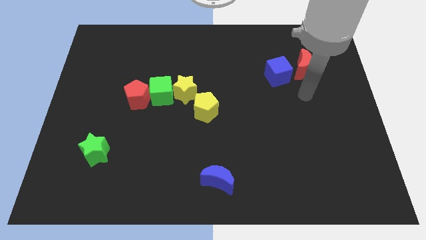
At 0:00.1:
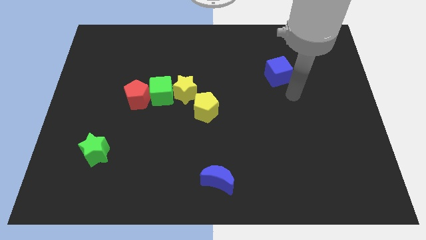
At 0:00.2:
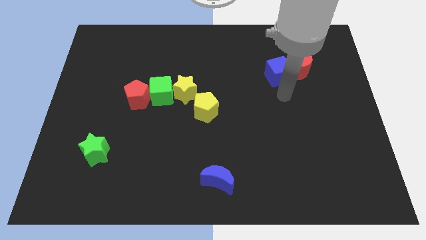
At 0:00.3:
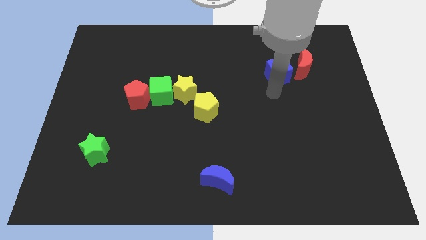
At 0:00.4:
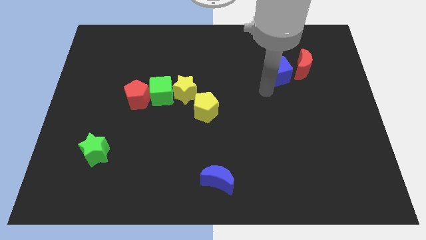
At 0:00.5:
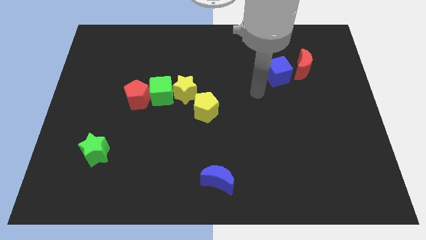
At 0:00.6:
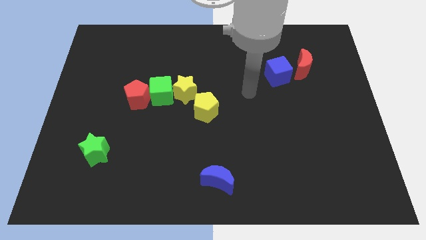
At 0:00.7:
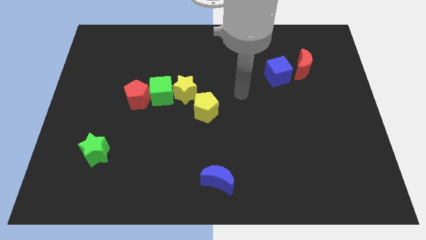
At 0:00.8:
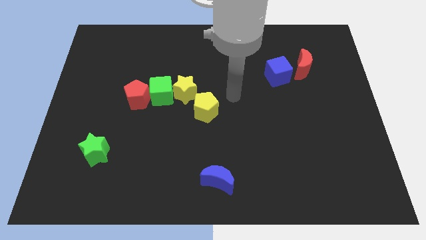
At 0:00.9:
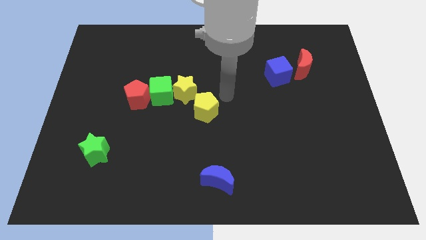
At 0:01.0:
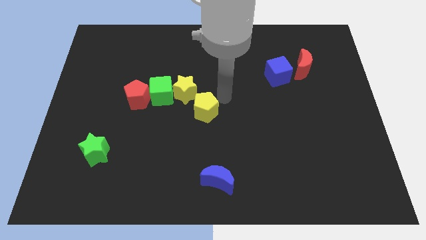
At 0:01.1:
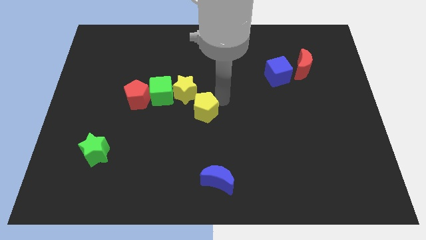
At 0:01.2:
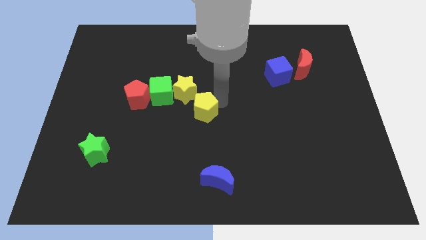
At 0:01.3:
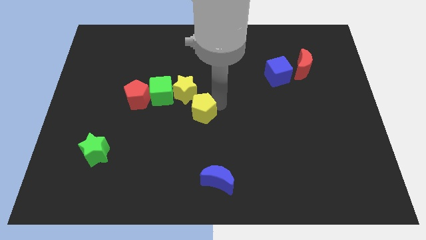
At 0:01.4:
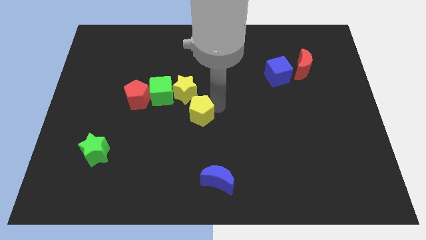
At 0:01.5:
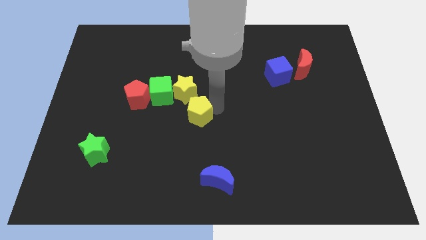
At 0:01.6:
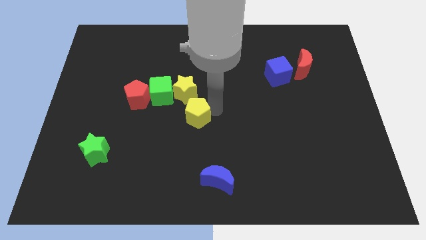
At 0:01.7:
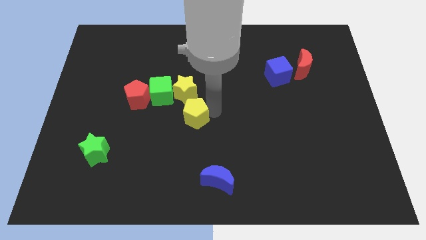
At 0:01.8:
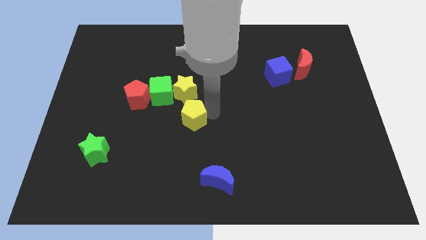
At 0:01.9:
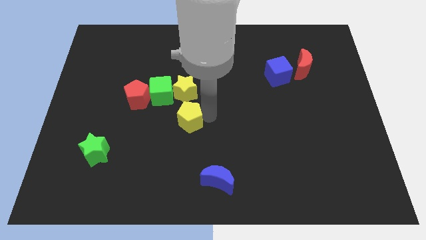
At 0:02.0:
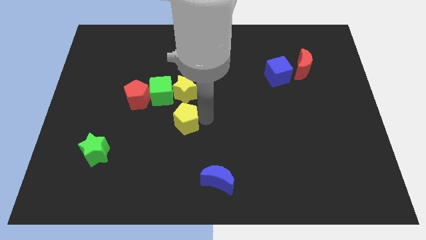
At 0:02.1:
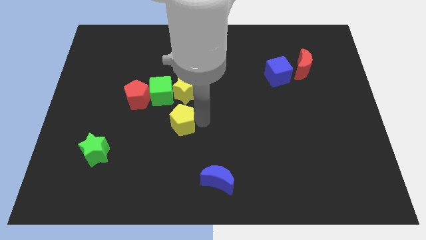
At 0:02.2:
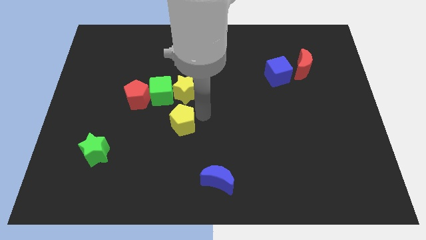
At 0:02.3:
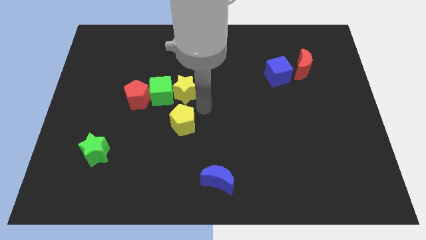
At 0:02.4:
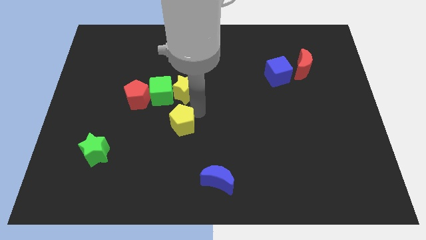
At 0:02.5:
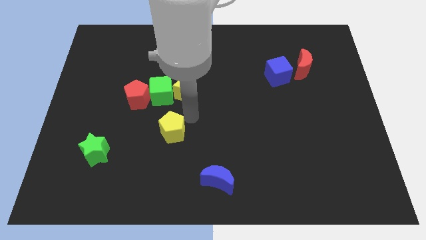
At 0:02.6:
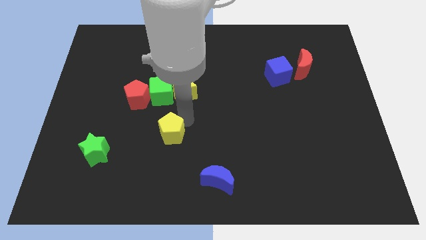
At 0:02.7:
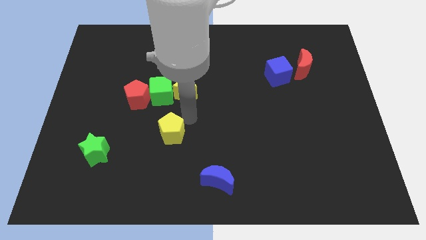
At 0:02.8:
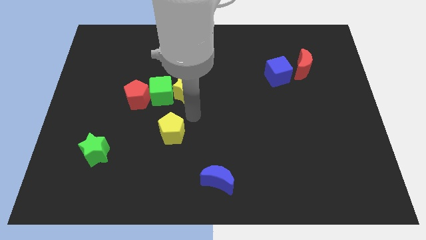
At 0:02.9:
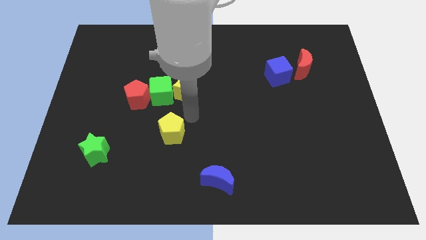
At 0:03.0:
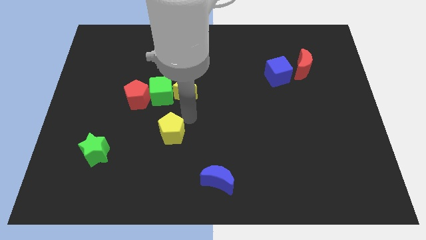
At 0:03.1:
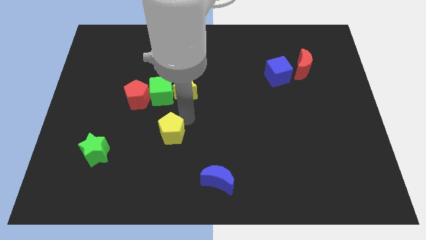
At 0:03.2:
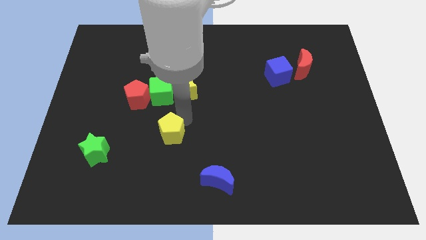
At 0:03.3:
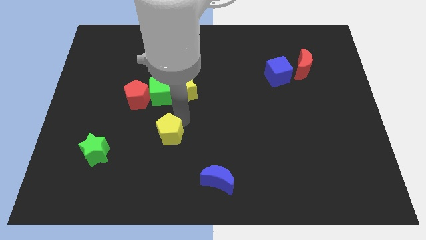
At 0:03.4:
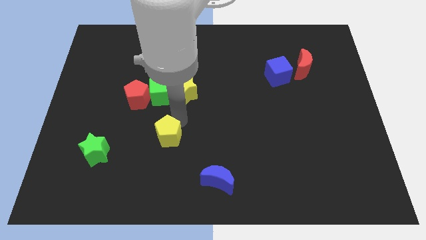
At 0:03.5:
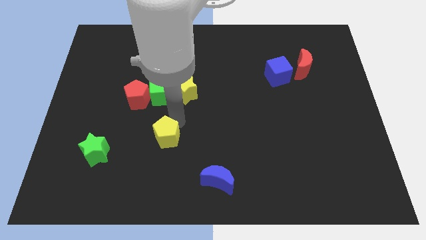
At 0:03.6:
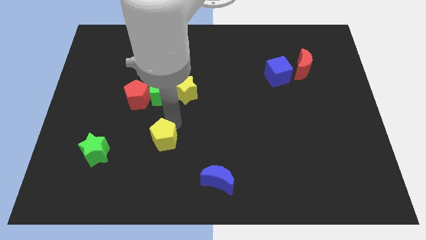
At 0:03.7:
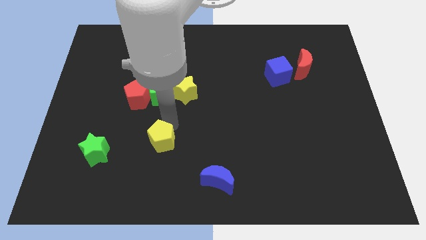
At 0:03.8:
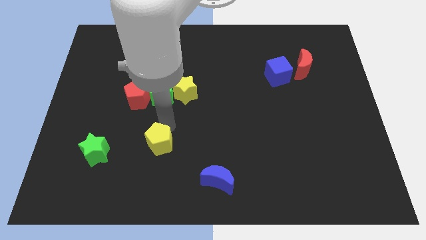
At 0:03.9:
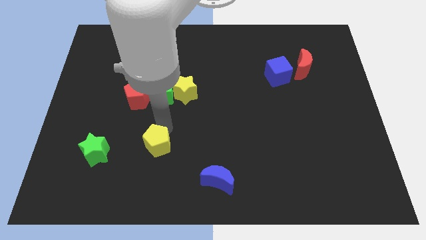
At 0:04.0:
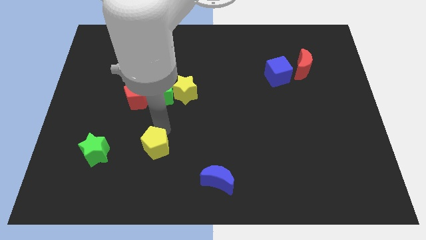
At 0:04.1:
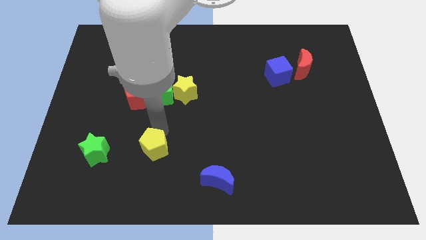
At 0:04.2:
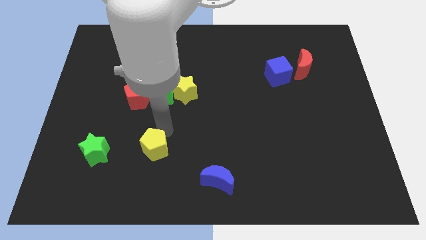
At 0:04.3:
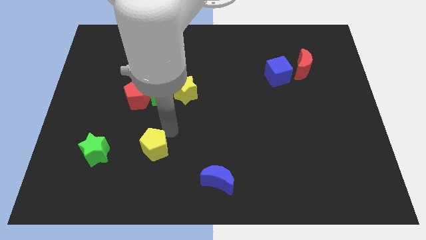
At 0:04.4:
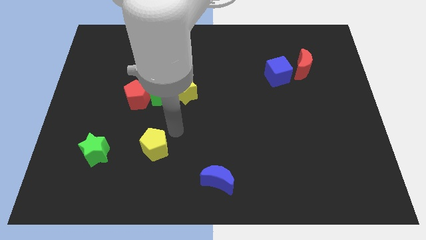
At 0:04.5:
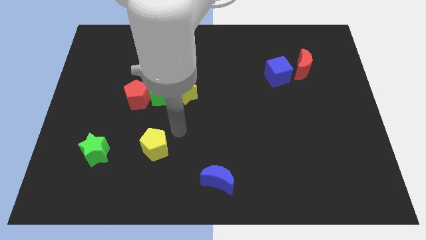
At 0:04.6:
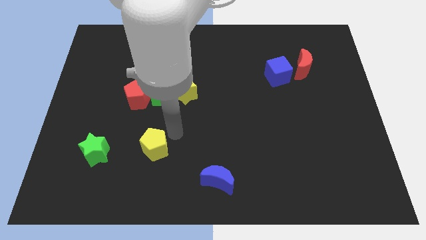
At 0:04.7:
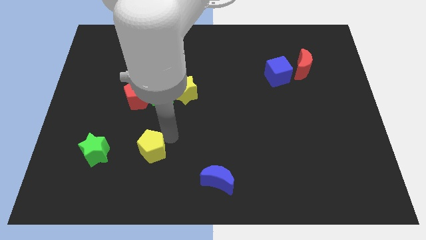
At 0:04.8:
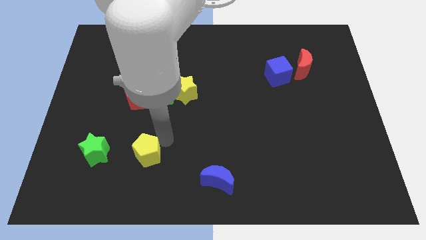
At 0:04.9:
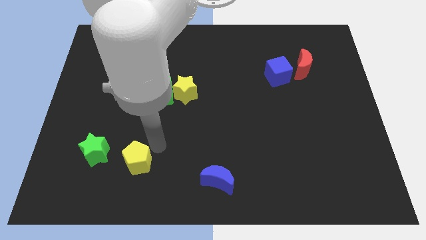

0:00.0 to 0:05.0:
put the yellow pentagon to the bottom right of the green star

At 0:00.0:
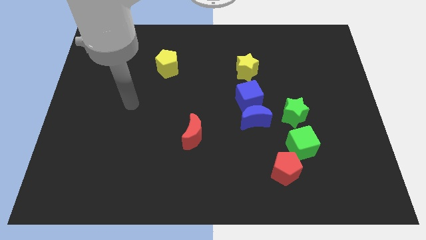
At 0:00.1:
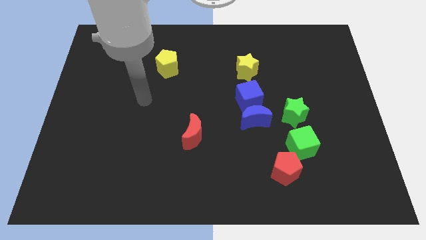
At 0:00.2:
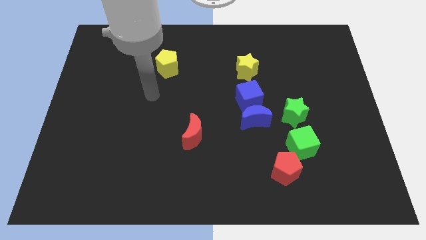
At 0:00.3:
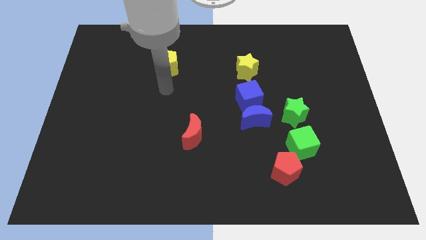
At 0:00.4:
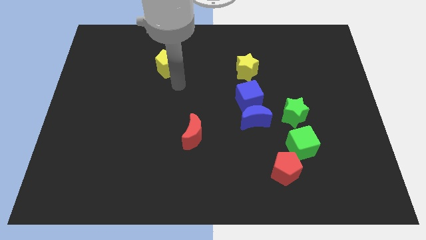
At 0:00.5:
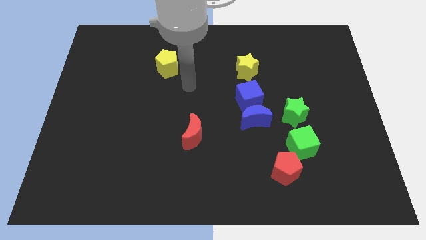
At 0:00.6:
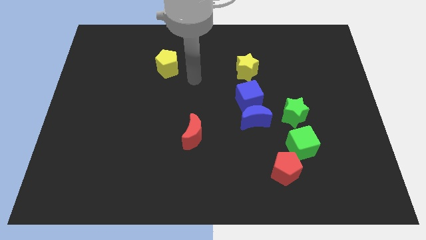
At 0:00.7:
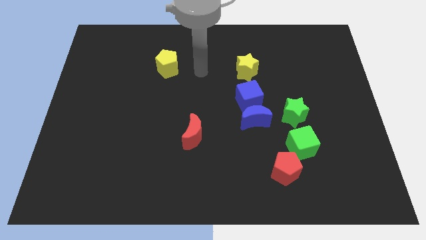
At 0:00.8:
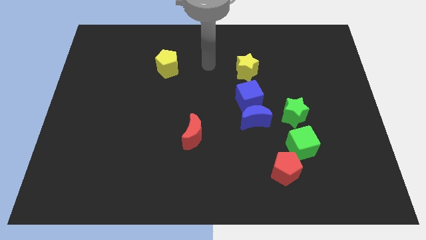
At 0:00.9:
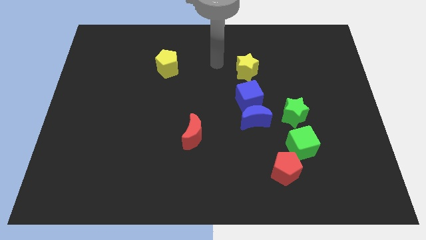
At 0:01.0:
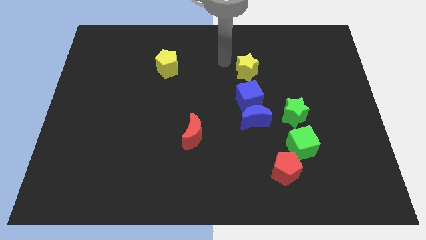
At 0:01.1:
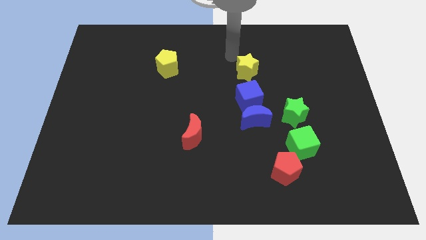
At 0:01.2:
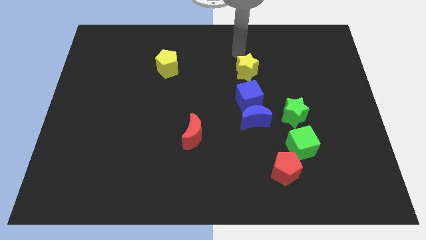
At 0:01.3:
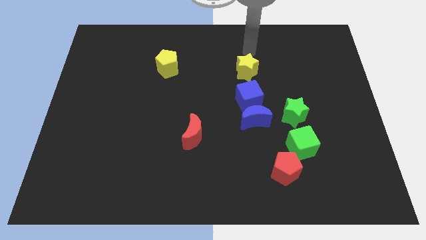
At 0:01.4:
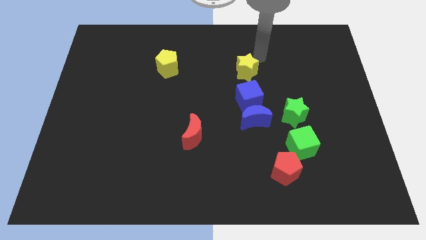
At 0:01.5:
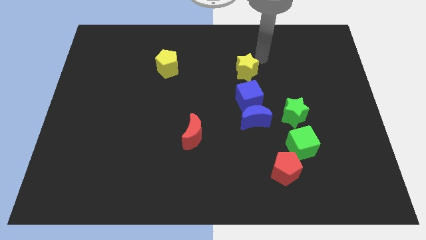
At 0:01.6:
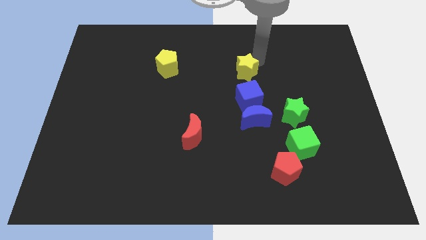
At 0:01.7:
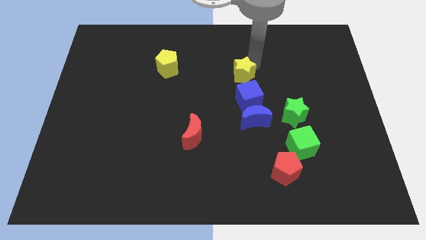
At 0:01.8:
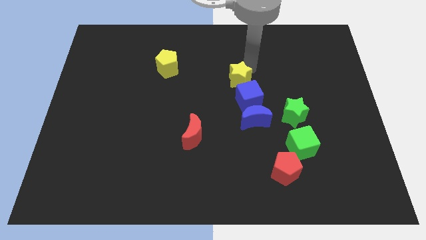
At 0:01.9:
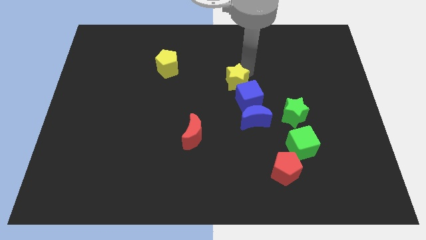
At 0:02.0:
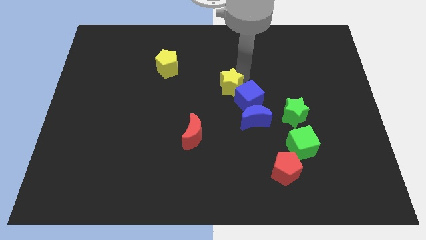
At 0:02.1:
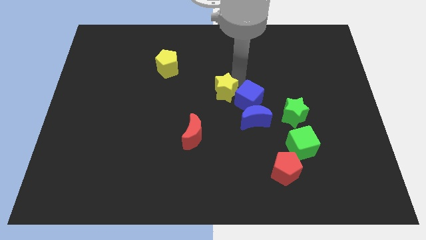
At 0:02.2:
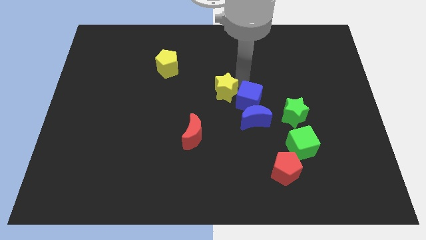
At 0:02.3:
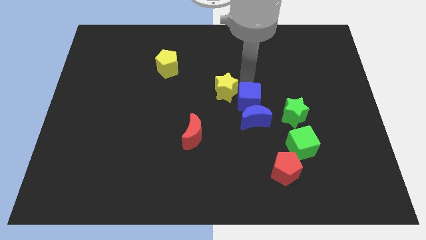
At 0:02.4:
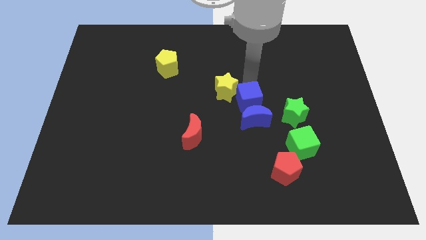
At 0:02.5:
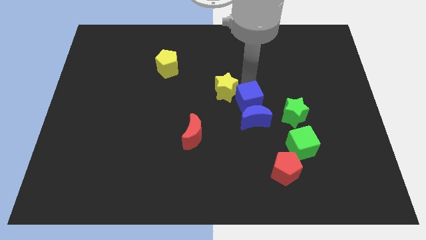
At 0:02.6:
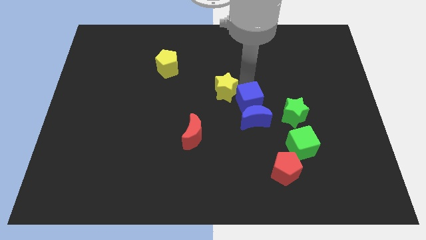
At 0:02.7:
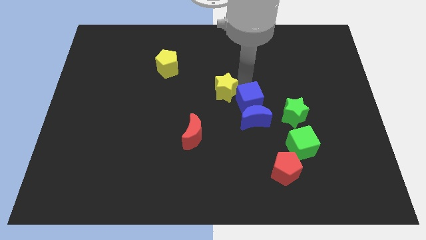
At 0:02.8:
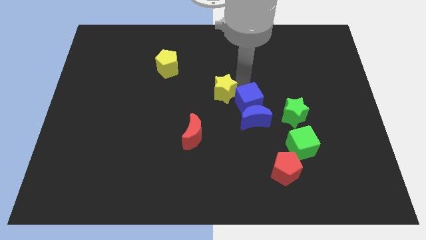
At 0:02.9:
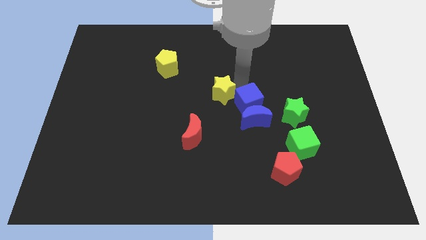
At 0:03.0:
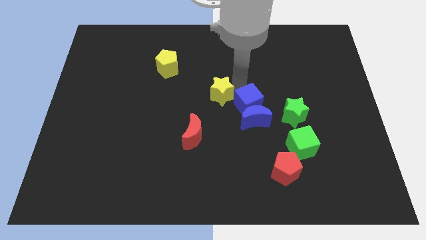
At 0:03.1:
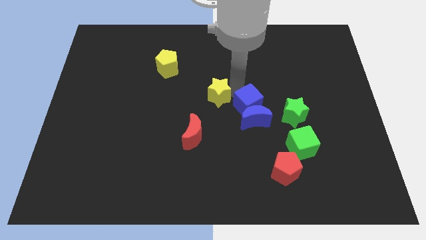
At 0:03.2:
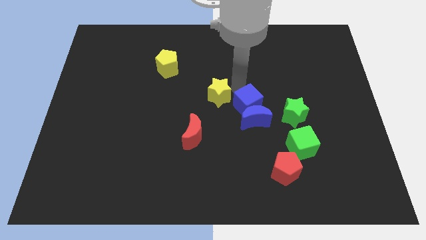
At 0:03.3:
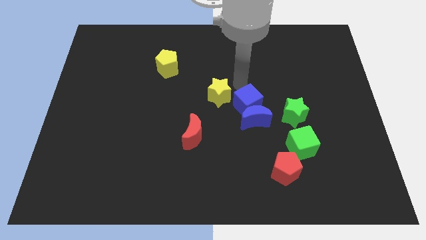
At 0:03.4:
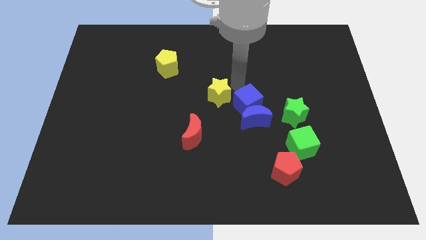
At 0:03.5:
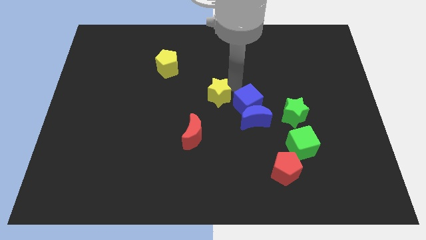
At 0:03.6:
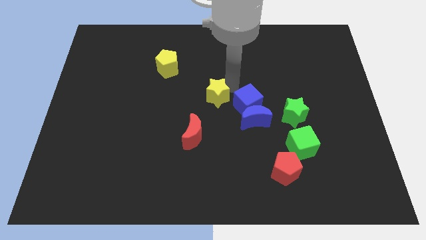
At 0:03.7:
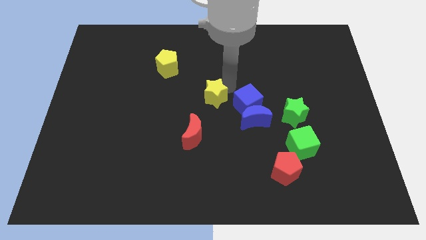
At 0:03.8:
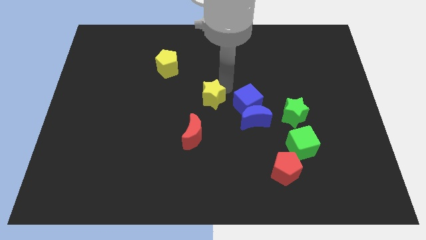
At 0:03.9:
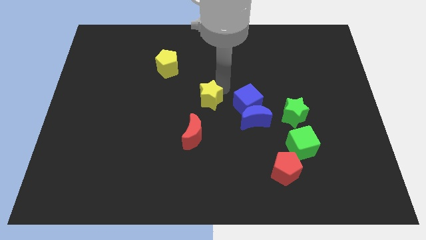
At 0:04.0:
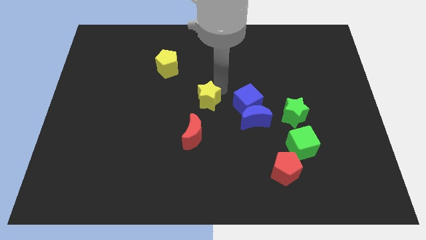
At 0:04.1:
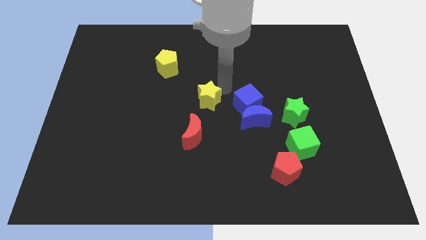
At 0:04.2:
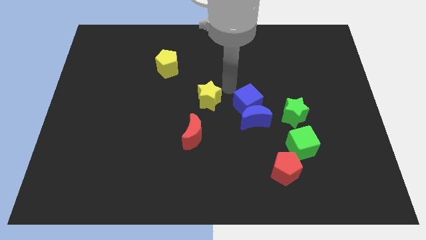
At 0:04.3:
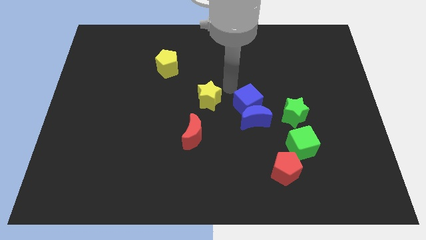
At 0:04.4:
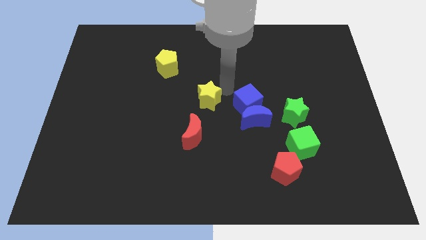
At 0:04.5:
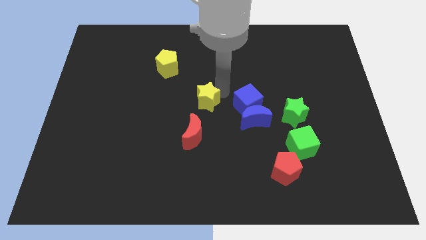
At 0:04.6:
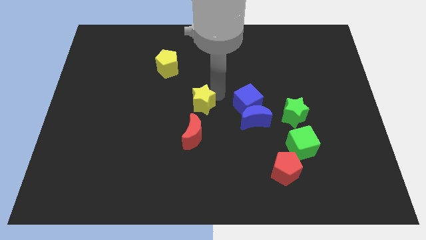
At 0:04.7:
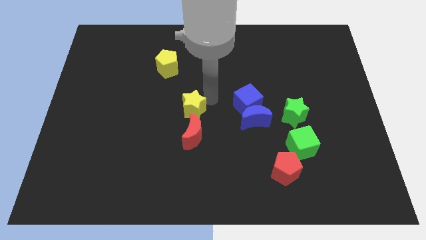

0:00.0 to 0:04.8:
slide the yellow star diagonally up and to the left of the red moon
